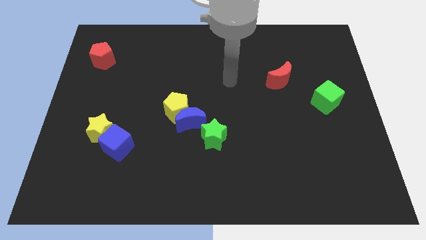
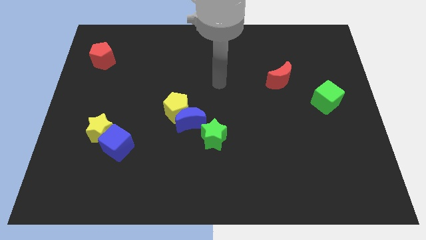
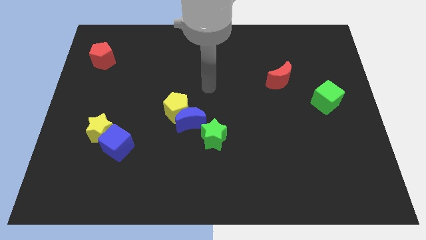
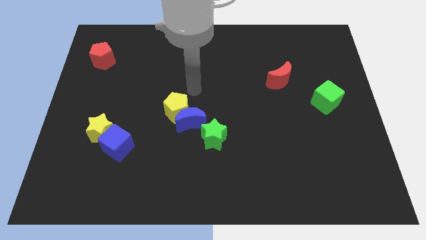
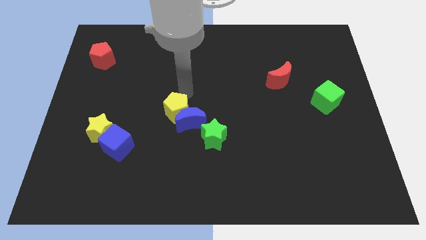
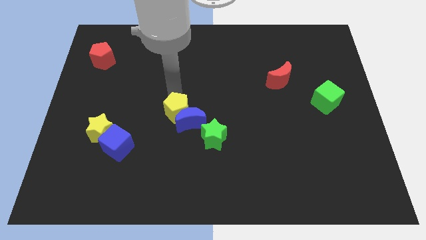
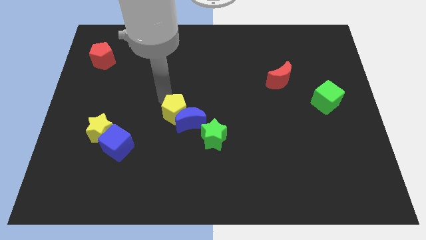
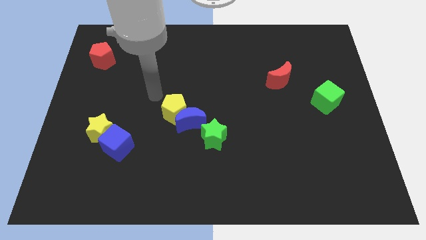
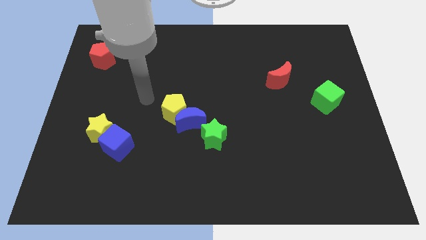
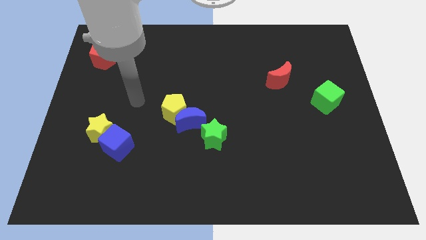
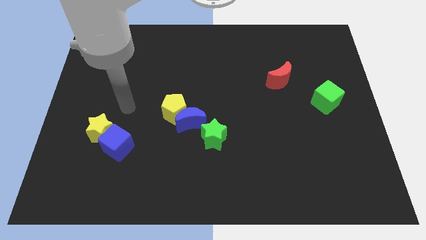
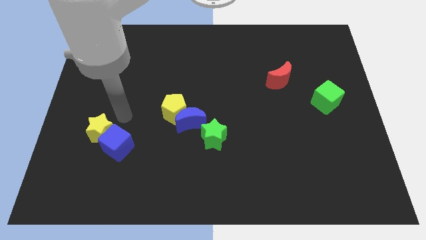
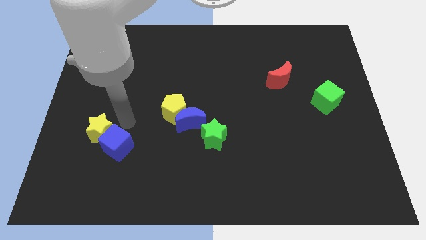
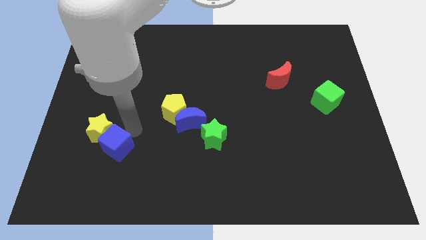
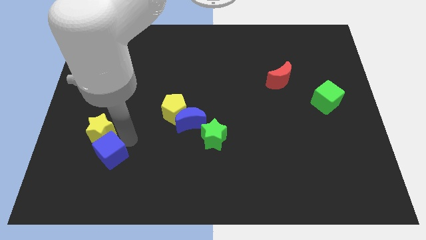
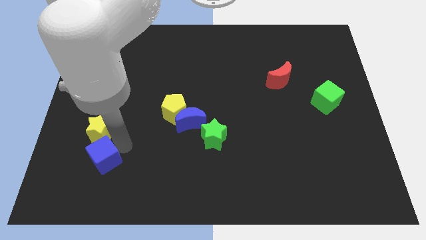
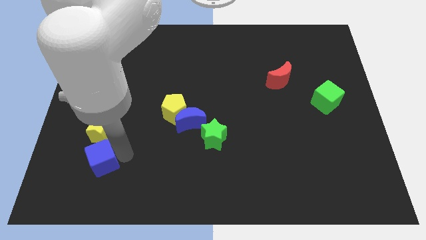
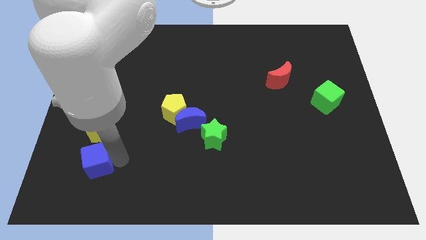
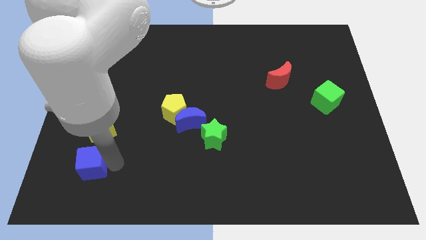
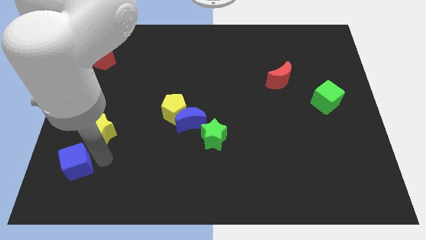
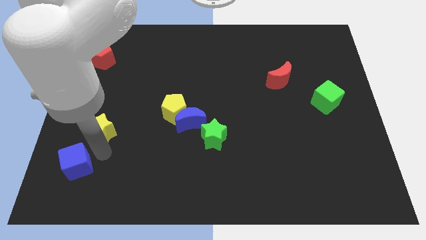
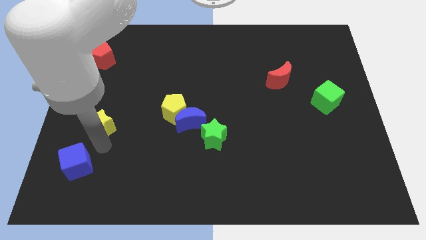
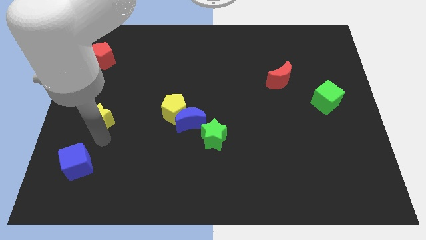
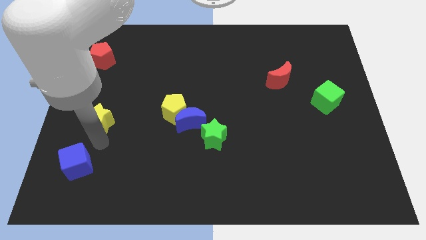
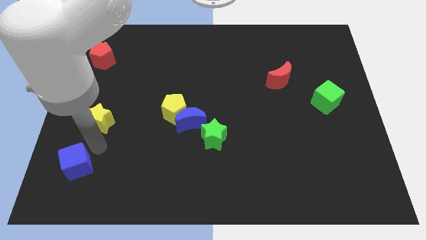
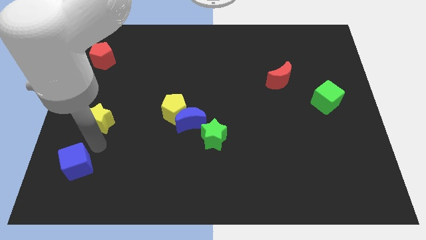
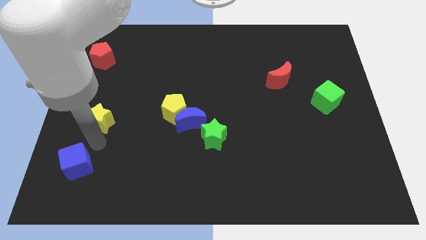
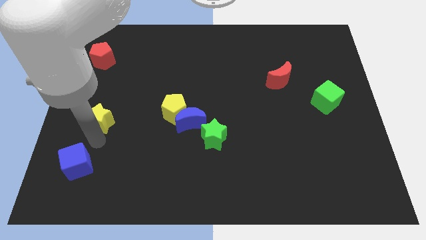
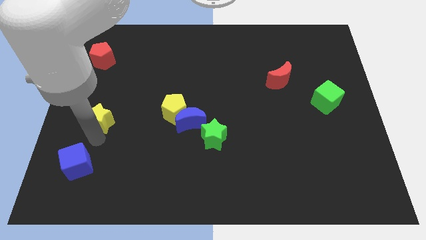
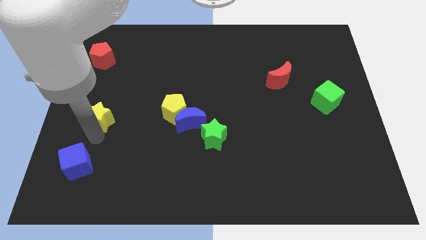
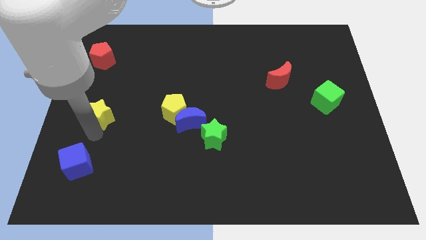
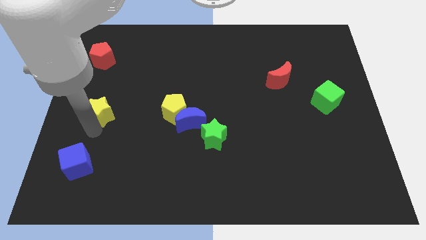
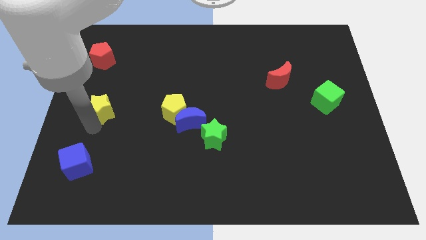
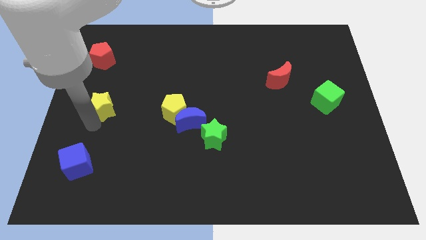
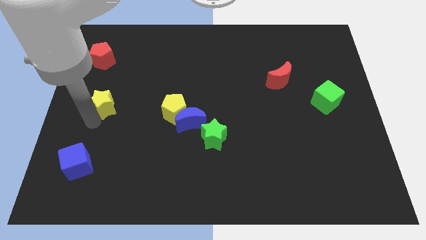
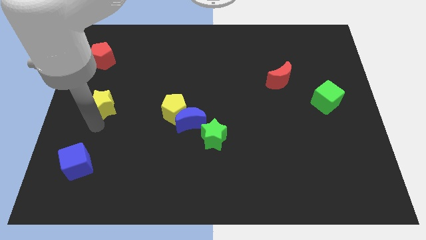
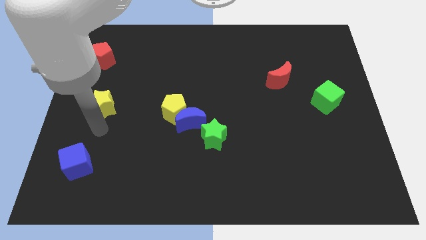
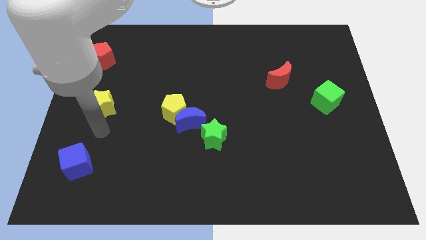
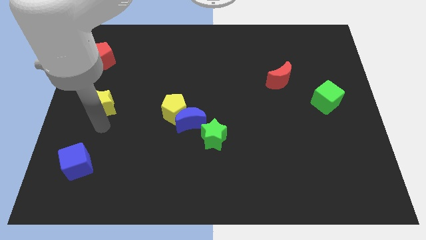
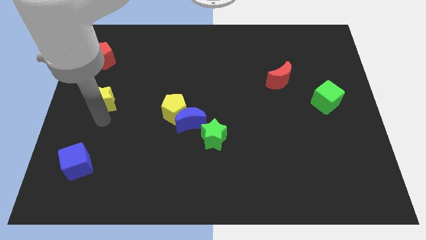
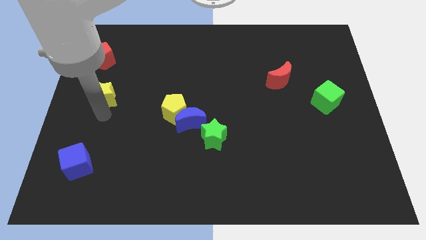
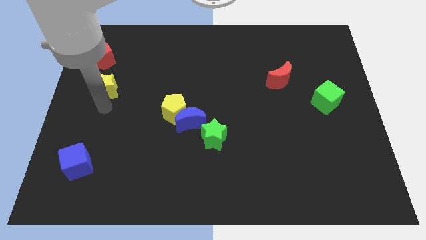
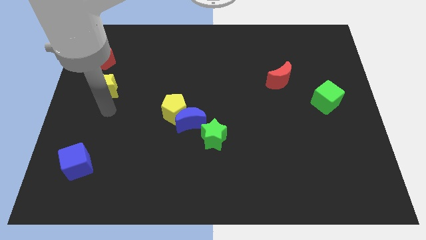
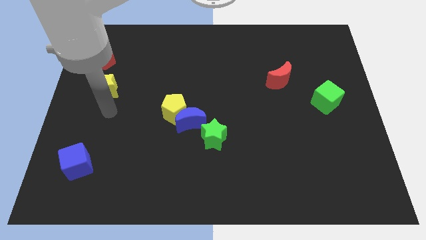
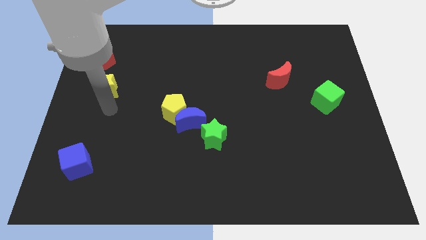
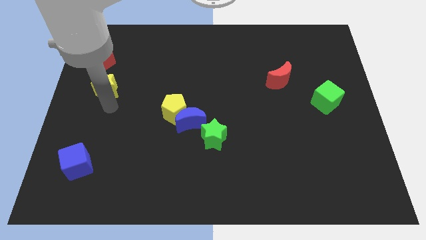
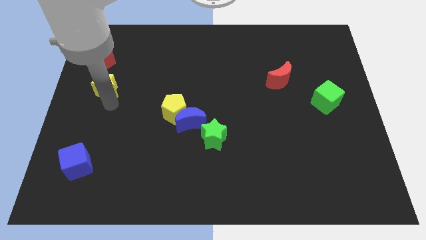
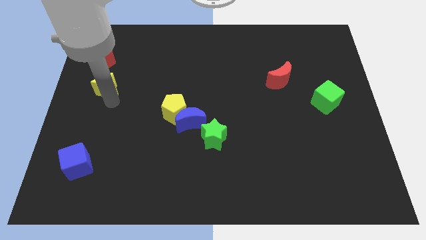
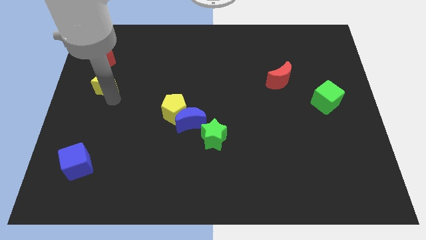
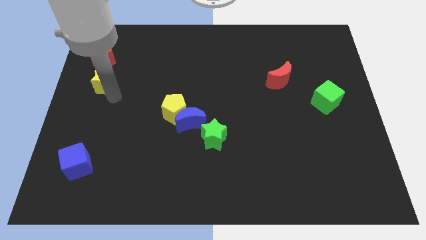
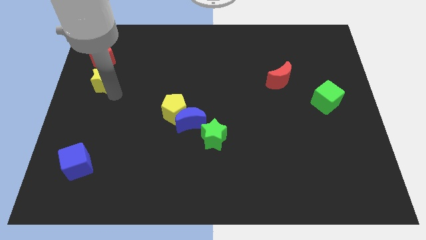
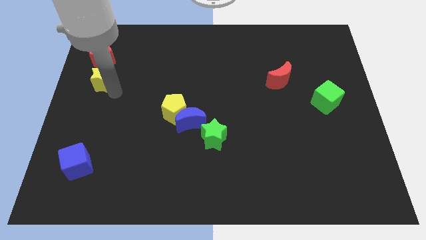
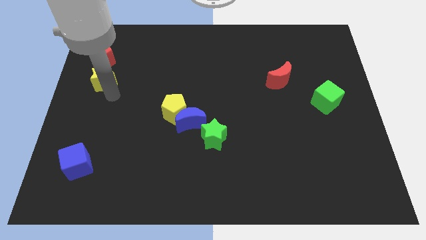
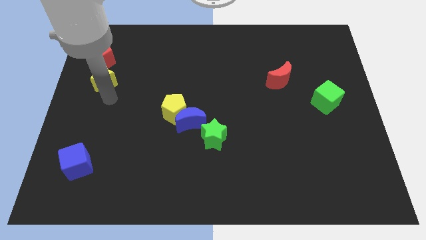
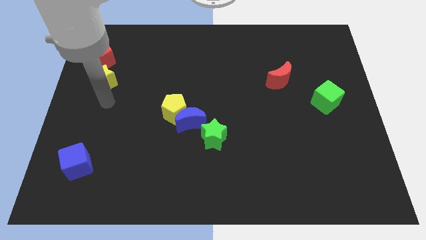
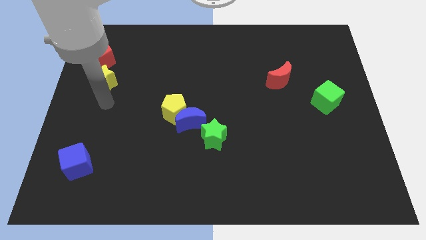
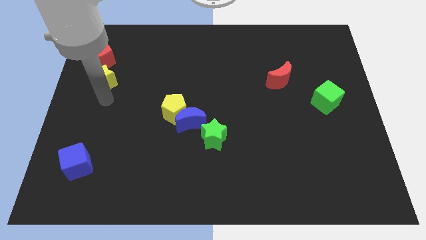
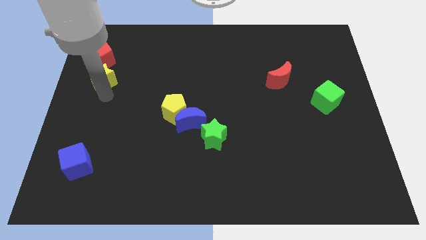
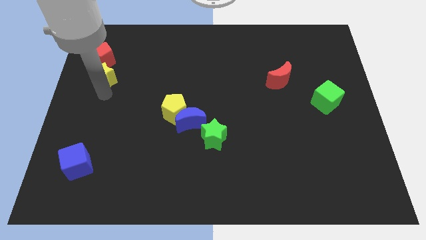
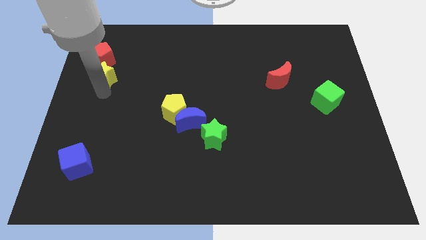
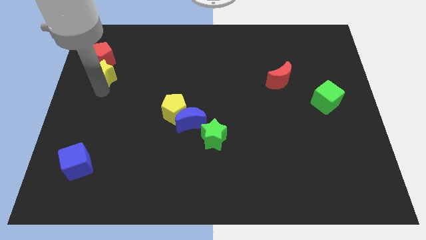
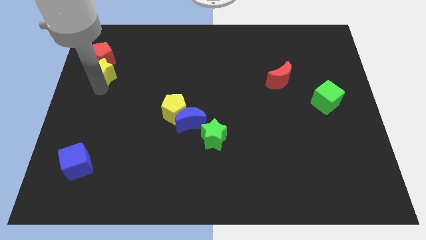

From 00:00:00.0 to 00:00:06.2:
push the yellow star to the red pentagon
